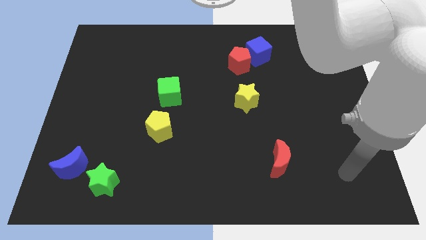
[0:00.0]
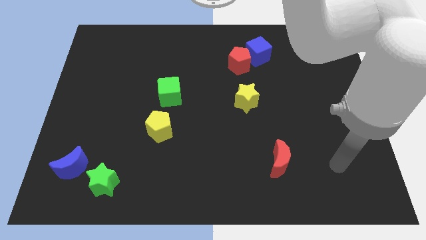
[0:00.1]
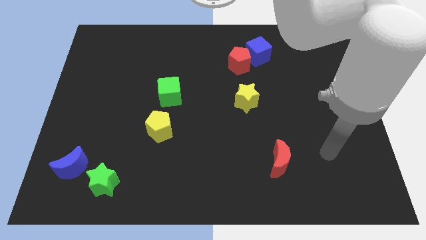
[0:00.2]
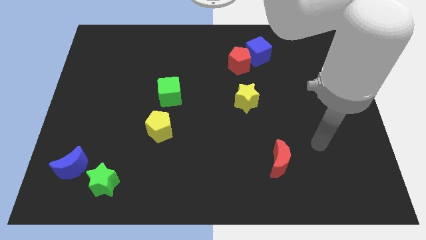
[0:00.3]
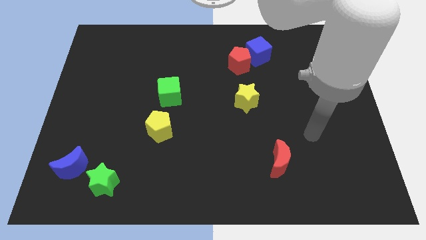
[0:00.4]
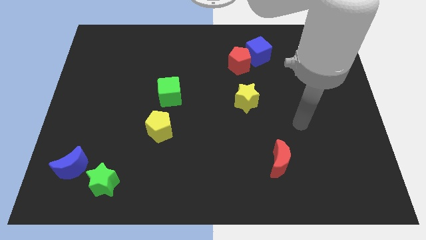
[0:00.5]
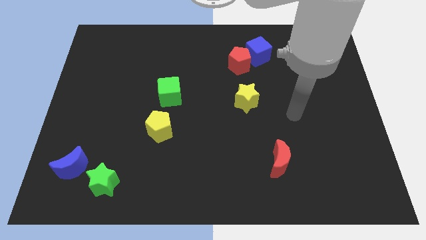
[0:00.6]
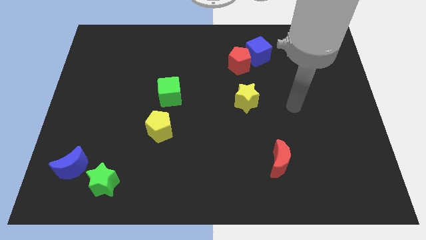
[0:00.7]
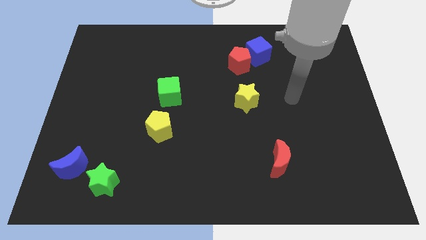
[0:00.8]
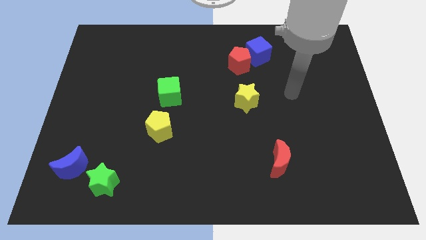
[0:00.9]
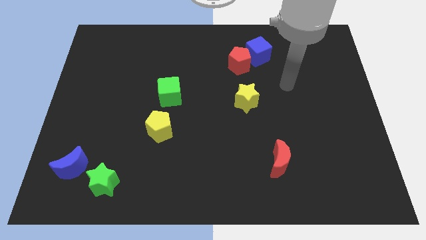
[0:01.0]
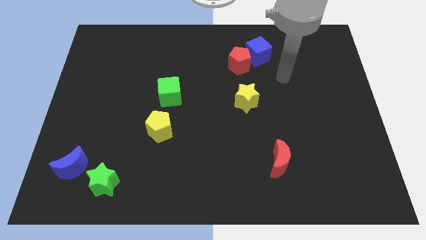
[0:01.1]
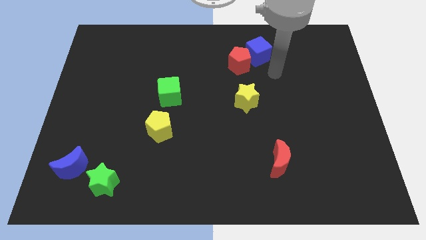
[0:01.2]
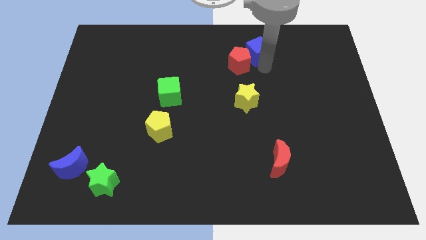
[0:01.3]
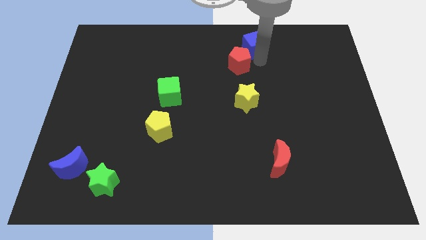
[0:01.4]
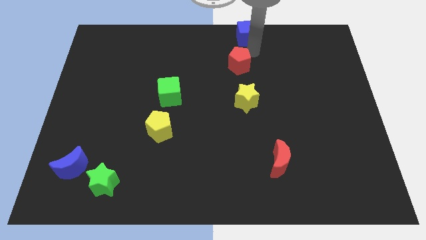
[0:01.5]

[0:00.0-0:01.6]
pull the red pentagon apart from the blue cube

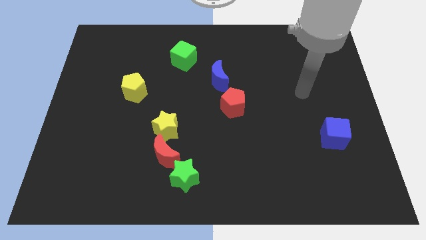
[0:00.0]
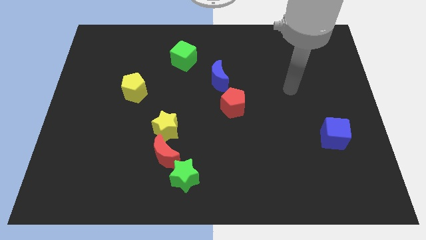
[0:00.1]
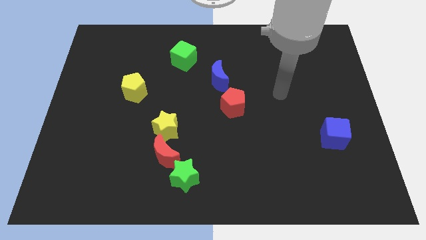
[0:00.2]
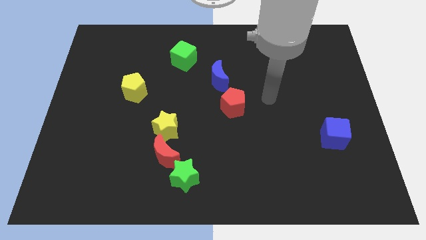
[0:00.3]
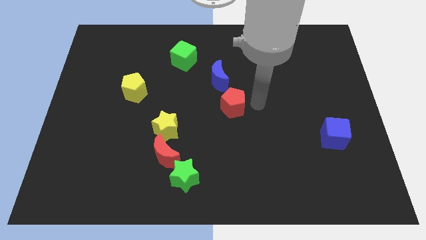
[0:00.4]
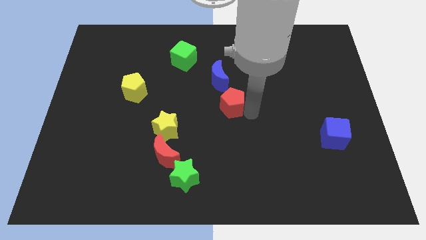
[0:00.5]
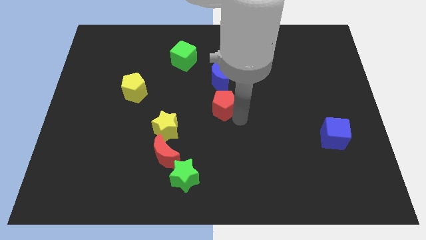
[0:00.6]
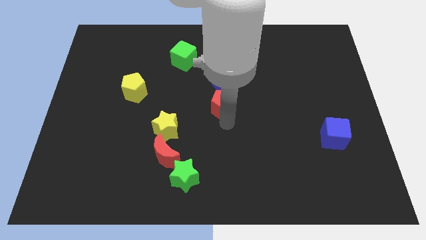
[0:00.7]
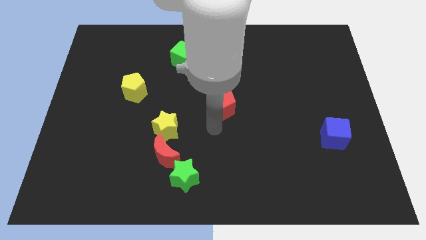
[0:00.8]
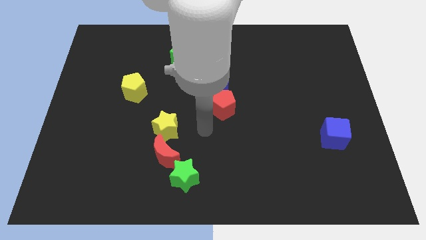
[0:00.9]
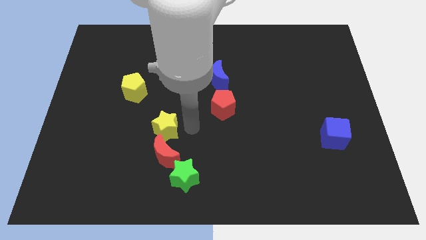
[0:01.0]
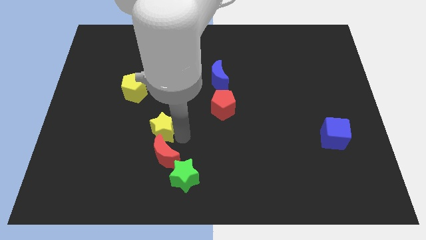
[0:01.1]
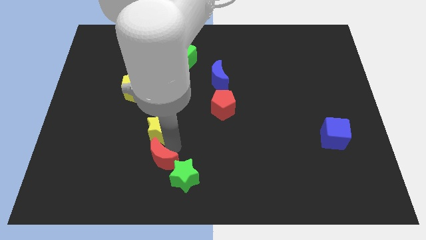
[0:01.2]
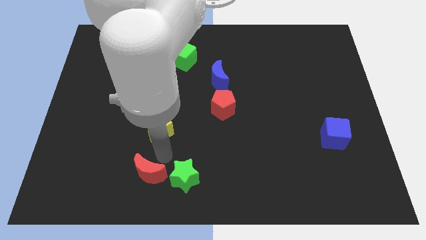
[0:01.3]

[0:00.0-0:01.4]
separate the yellow star from the red moon

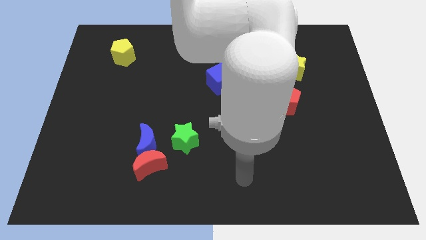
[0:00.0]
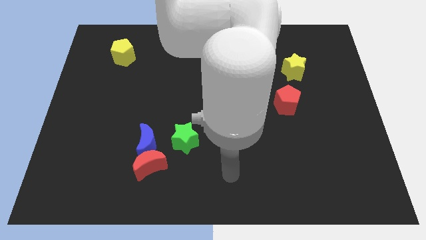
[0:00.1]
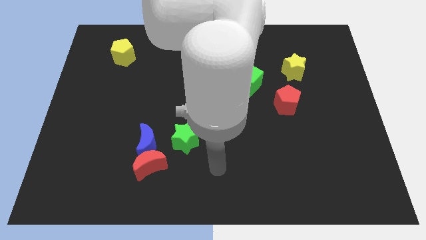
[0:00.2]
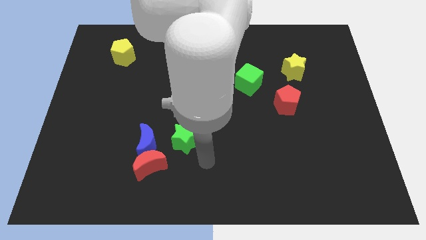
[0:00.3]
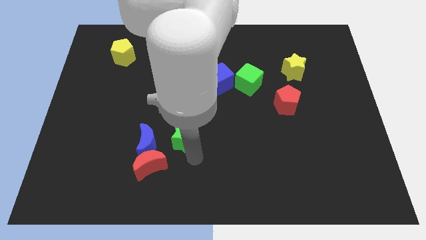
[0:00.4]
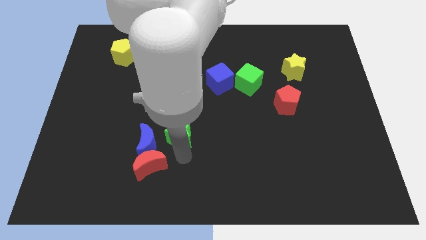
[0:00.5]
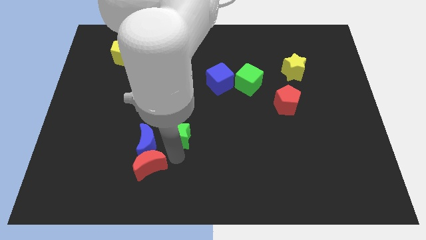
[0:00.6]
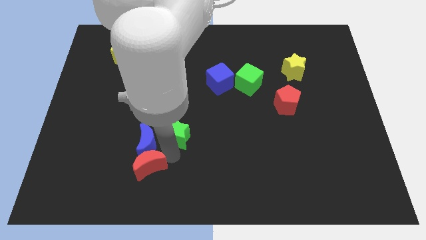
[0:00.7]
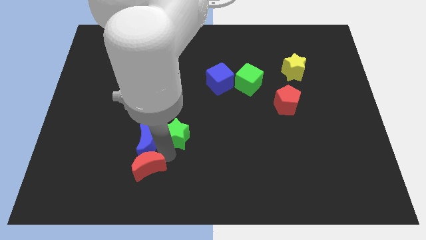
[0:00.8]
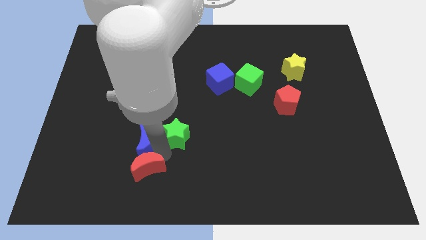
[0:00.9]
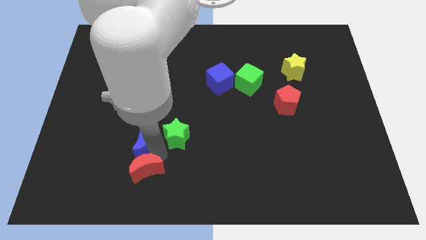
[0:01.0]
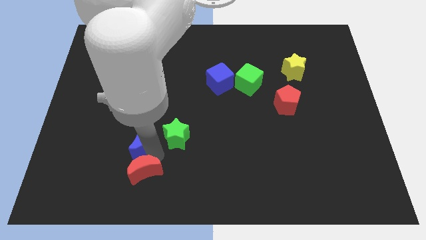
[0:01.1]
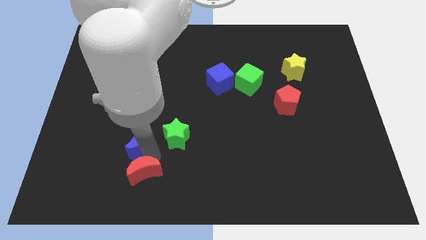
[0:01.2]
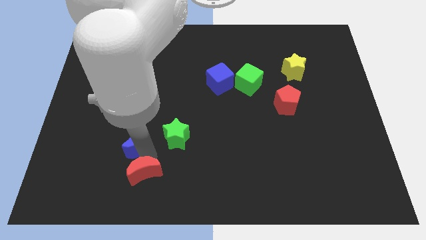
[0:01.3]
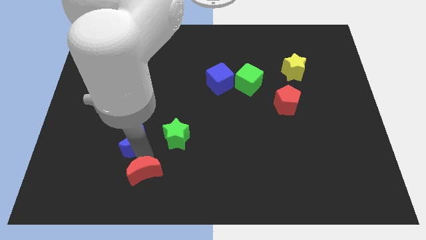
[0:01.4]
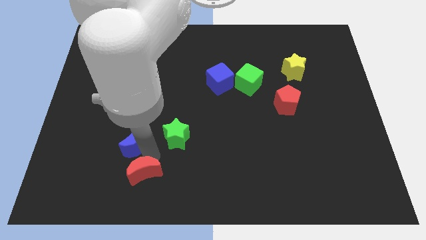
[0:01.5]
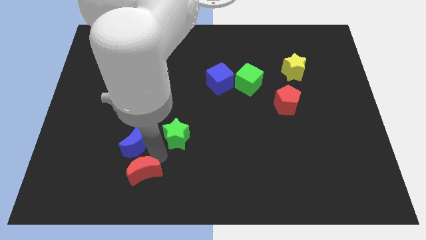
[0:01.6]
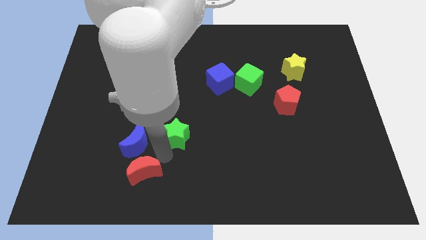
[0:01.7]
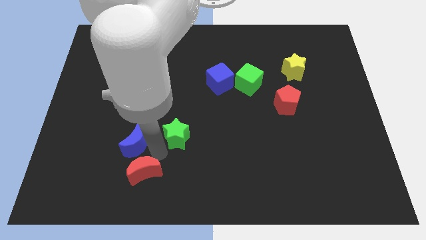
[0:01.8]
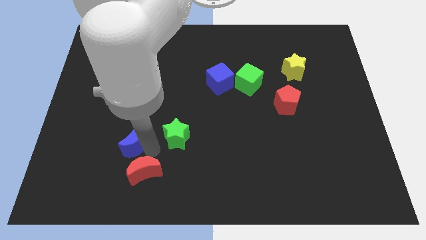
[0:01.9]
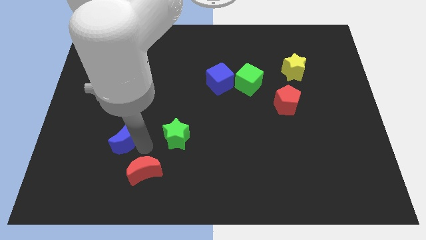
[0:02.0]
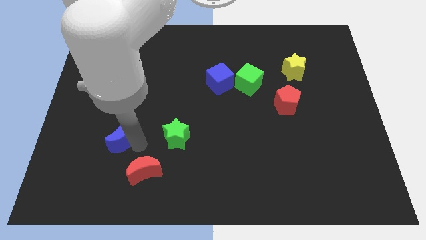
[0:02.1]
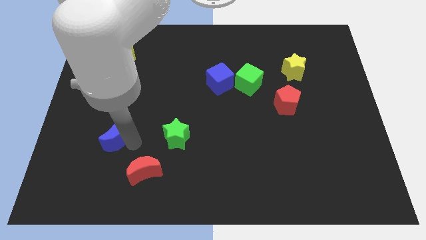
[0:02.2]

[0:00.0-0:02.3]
pull the blue moon apart from the red moon and green star

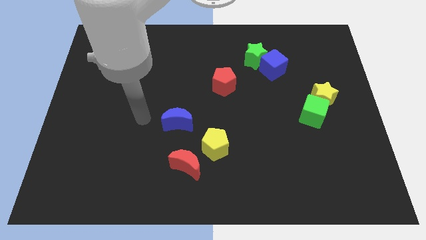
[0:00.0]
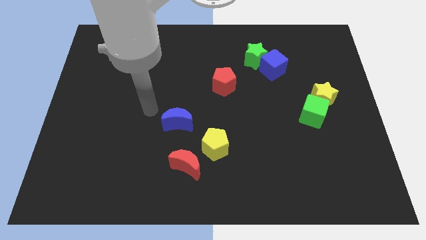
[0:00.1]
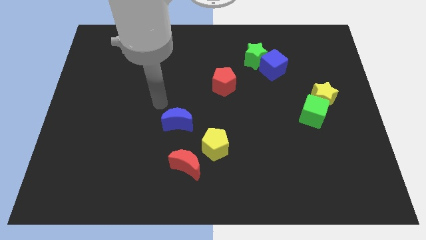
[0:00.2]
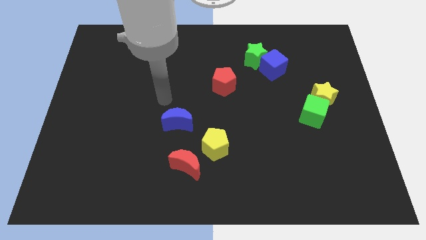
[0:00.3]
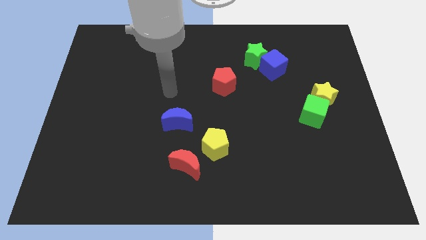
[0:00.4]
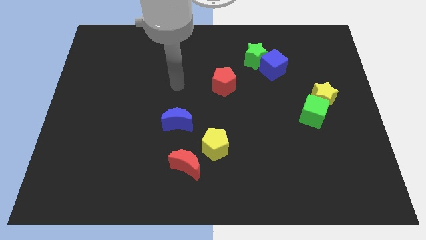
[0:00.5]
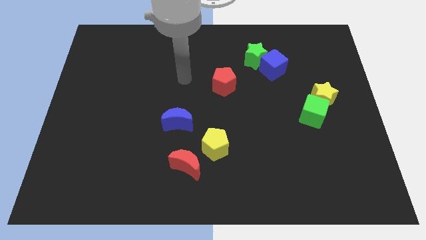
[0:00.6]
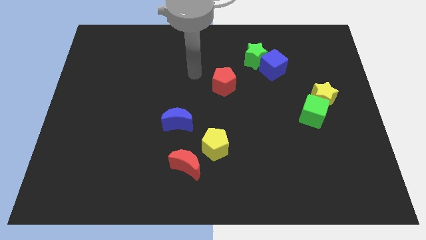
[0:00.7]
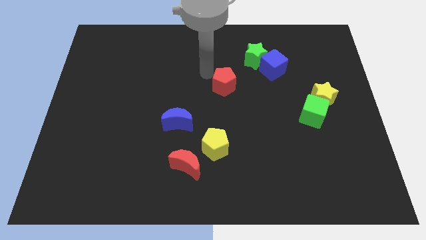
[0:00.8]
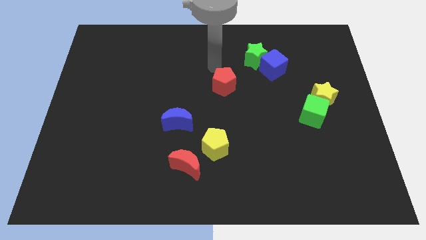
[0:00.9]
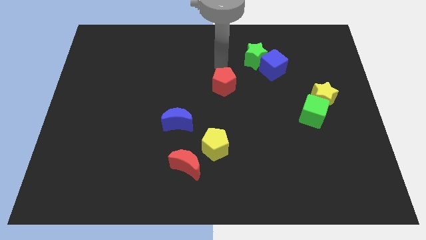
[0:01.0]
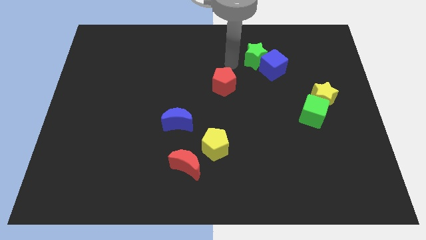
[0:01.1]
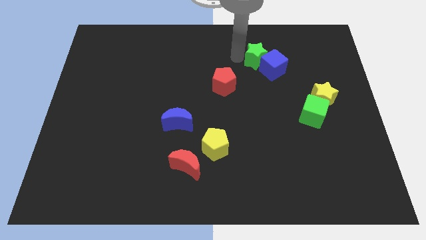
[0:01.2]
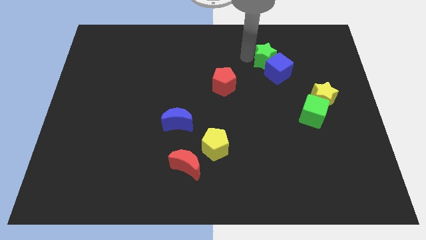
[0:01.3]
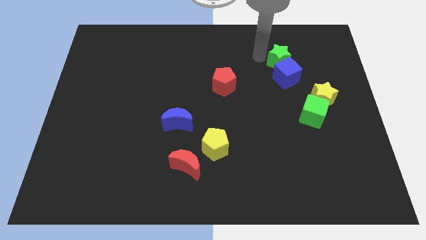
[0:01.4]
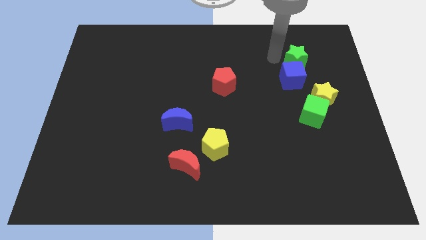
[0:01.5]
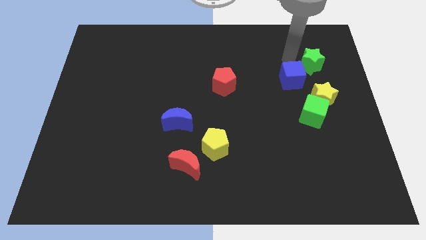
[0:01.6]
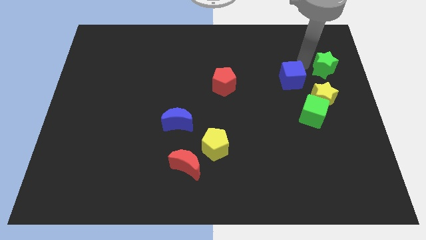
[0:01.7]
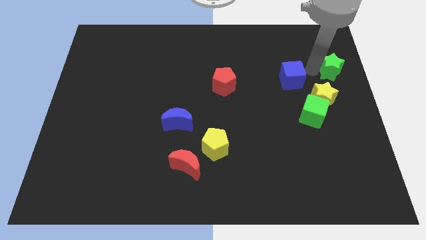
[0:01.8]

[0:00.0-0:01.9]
pull the blue cube apart from the green star

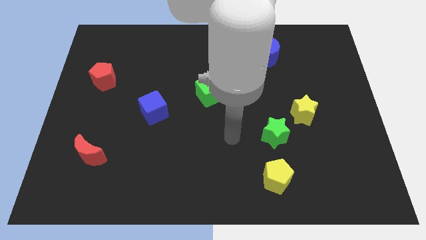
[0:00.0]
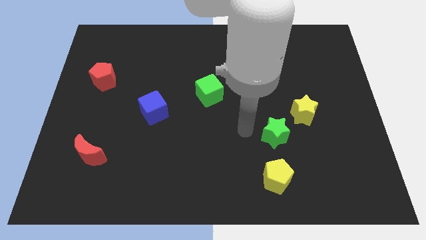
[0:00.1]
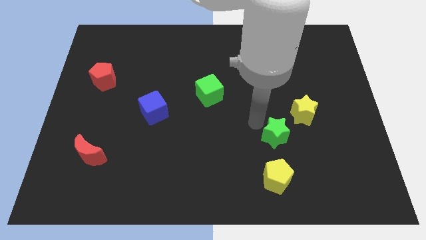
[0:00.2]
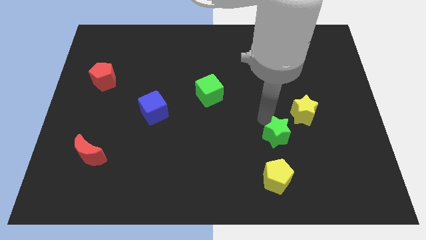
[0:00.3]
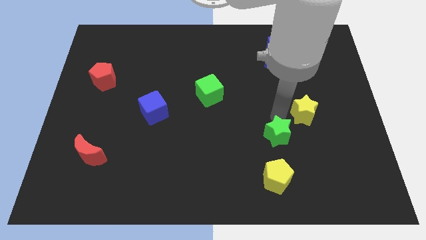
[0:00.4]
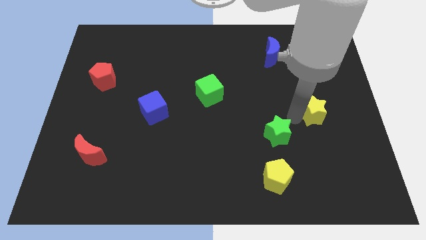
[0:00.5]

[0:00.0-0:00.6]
pull the green star apart from the yellow star

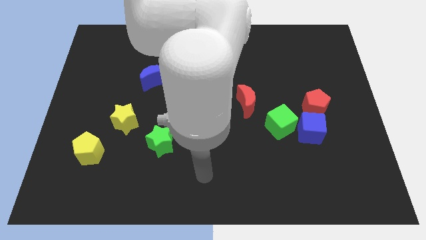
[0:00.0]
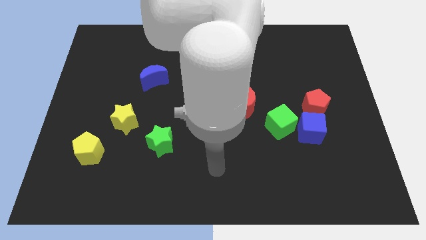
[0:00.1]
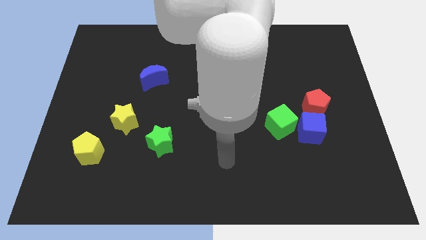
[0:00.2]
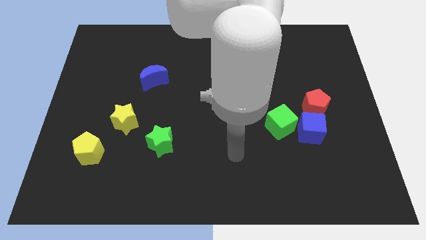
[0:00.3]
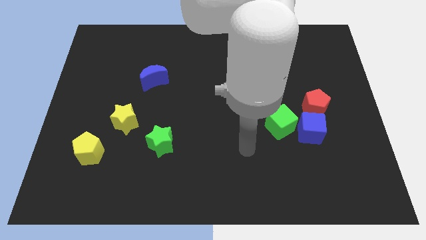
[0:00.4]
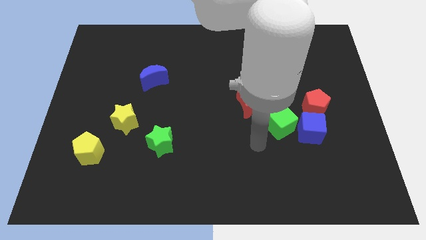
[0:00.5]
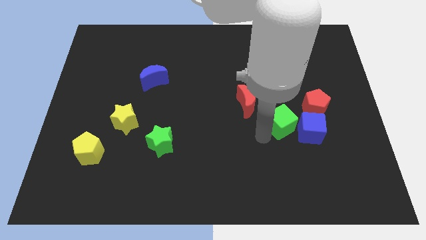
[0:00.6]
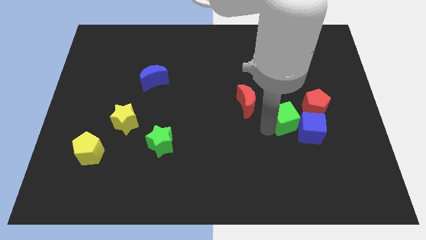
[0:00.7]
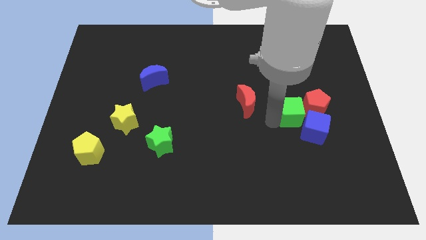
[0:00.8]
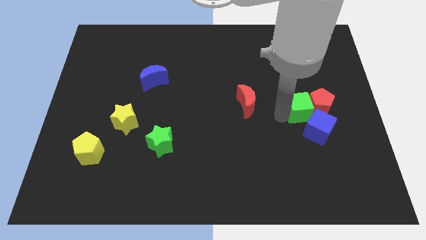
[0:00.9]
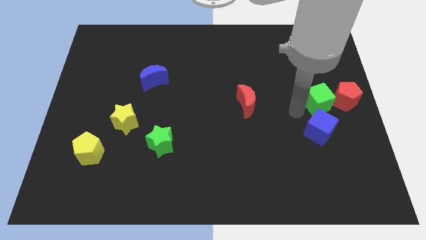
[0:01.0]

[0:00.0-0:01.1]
move the blue cube away from the green cube and red pentagon

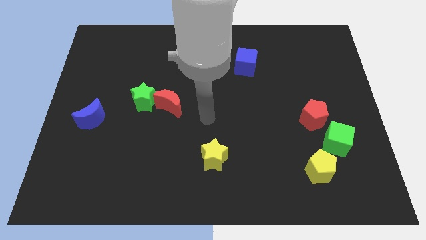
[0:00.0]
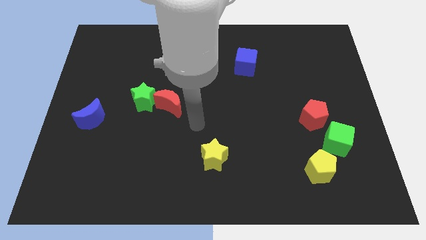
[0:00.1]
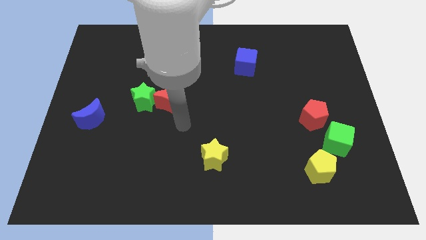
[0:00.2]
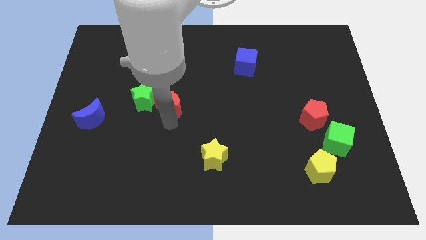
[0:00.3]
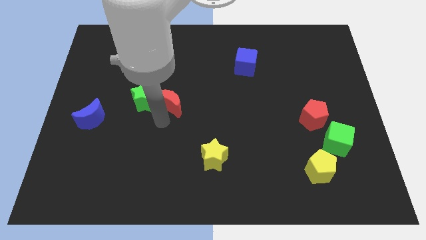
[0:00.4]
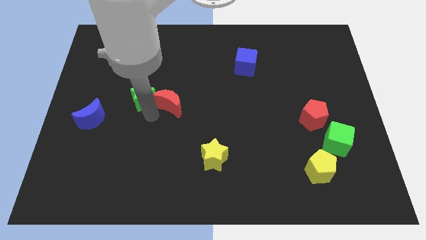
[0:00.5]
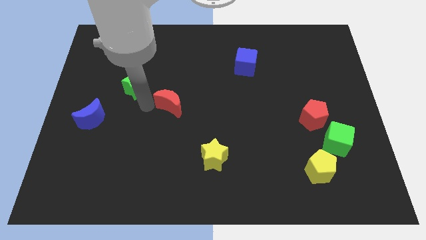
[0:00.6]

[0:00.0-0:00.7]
move the red moon away from the green star
